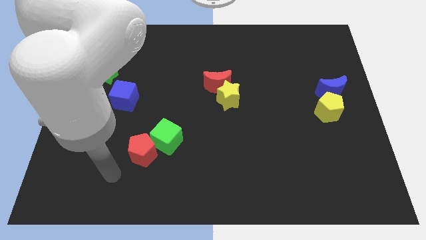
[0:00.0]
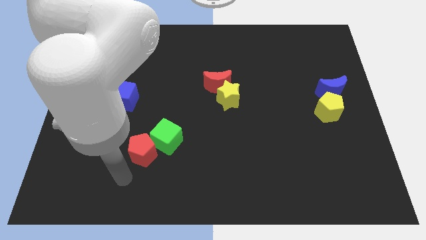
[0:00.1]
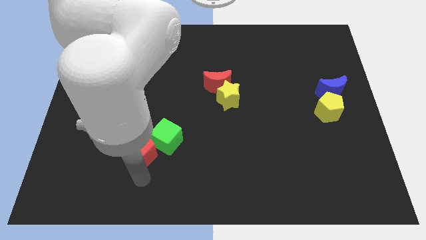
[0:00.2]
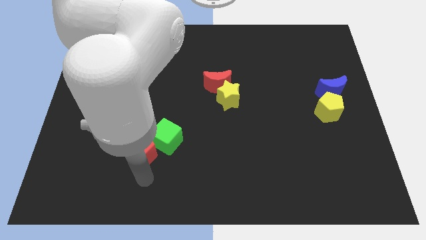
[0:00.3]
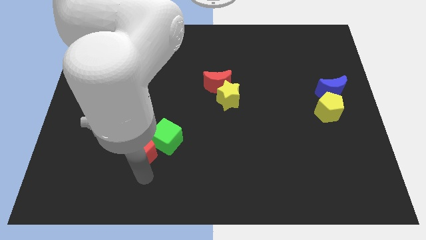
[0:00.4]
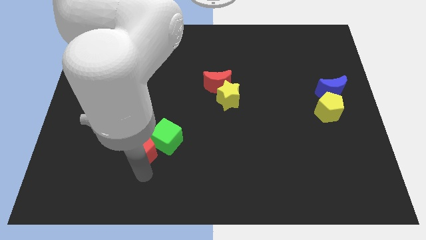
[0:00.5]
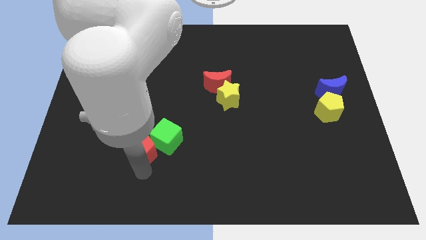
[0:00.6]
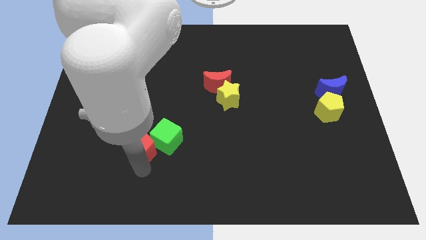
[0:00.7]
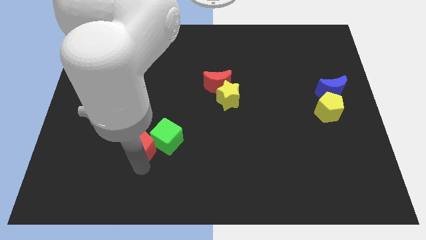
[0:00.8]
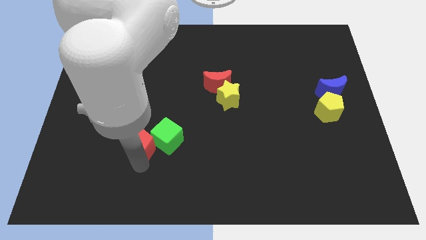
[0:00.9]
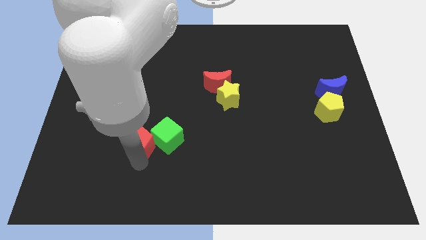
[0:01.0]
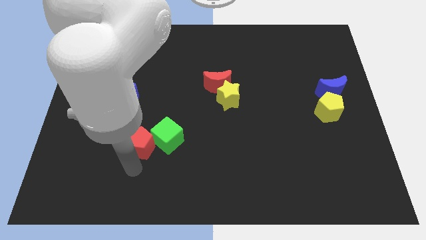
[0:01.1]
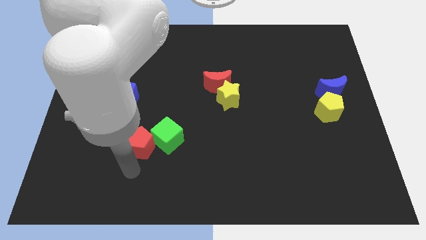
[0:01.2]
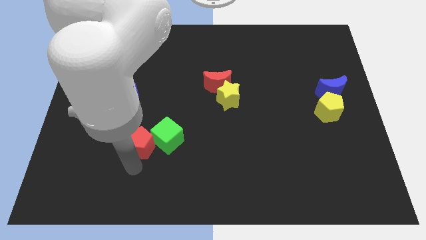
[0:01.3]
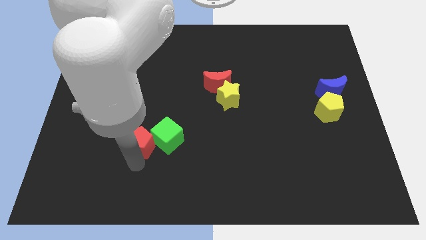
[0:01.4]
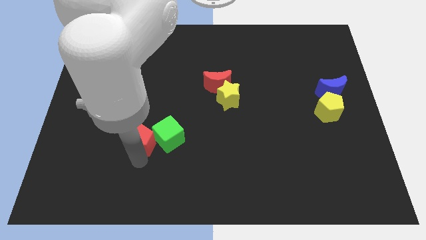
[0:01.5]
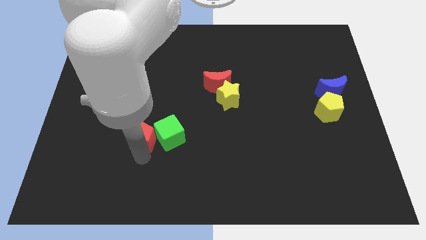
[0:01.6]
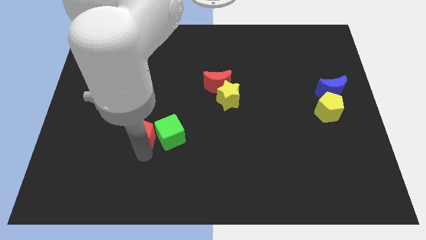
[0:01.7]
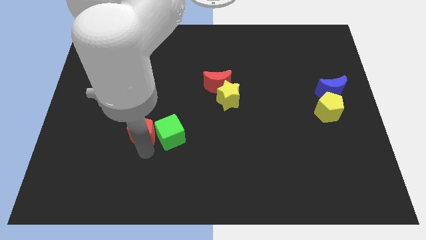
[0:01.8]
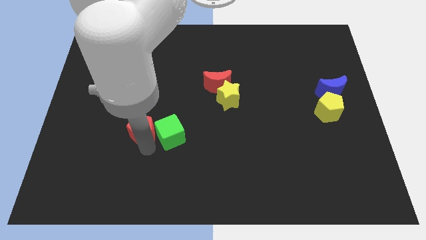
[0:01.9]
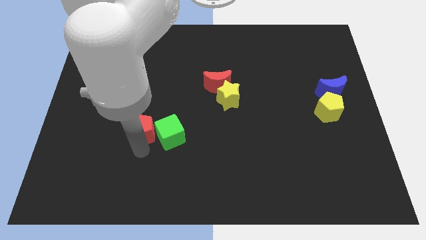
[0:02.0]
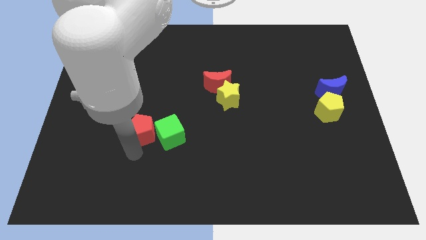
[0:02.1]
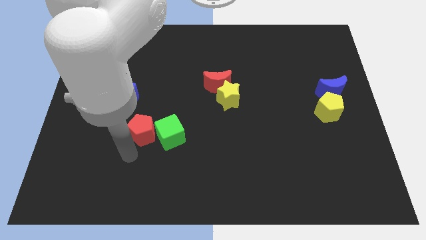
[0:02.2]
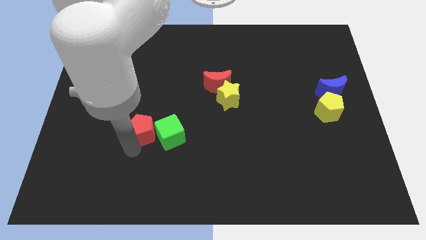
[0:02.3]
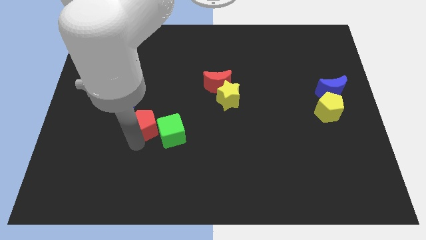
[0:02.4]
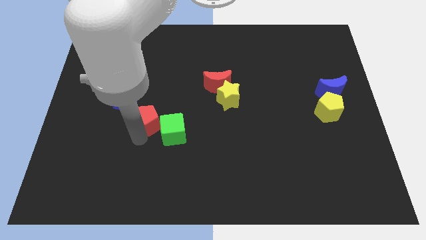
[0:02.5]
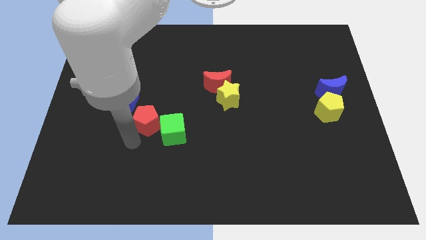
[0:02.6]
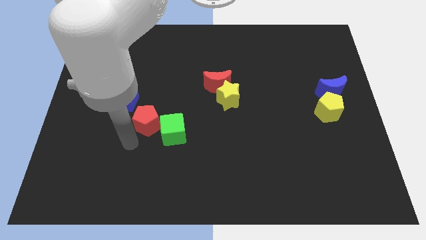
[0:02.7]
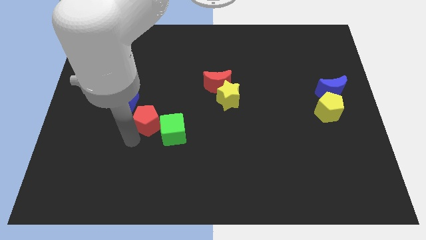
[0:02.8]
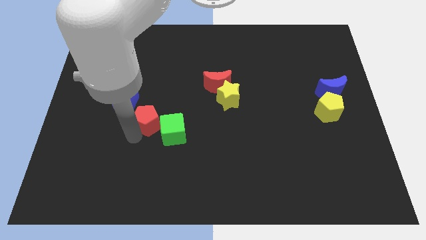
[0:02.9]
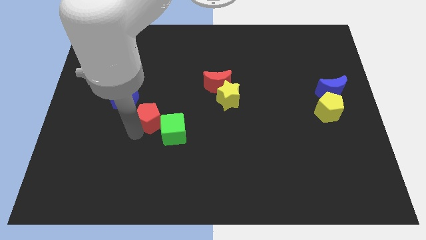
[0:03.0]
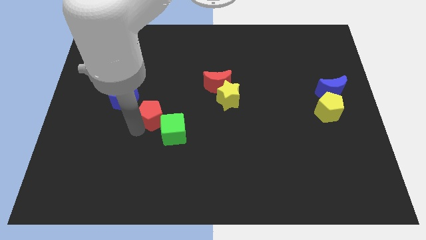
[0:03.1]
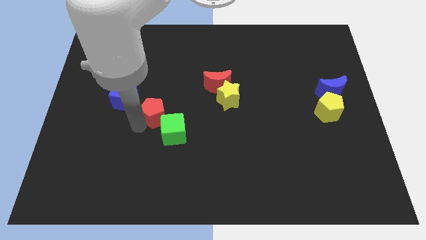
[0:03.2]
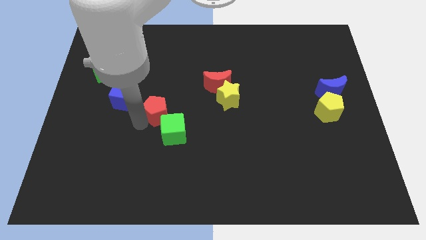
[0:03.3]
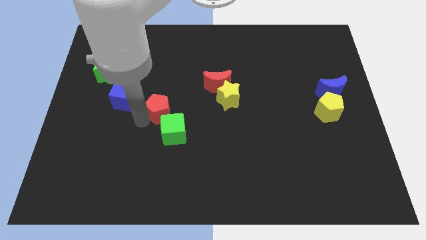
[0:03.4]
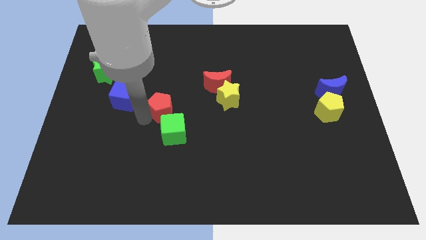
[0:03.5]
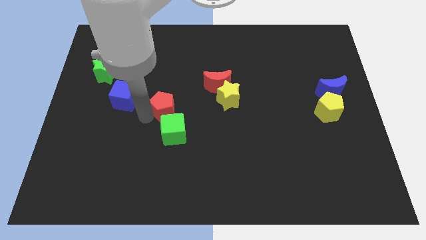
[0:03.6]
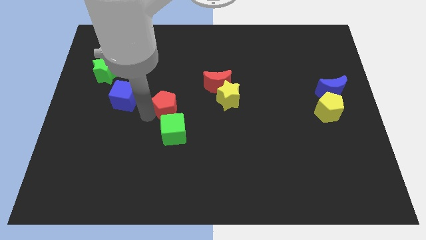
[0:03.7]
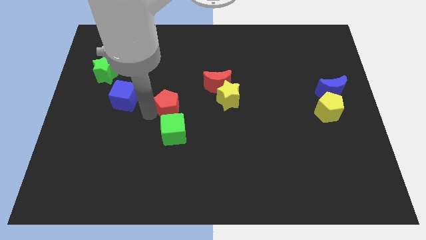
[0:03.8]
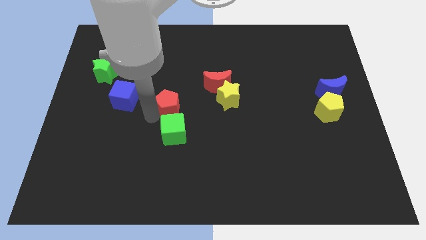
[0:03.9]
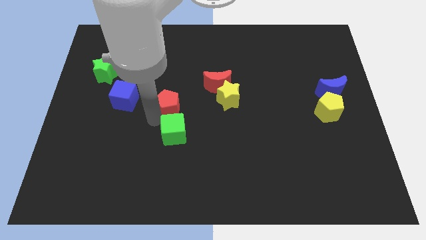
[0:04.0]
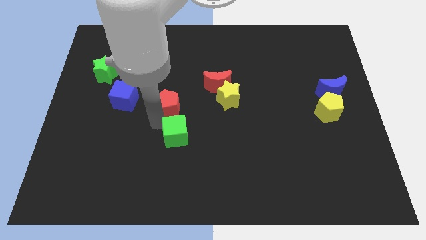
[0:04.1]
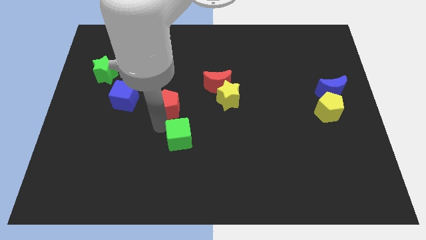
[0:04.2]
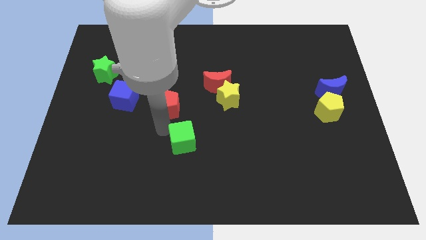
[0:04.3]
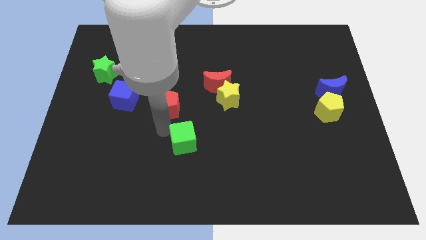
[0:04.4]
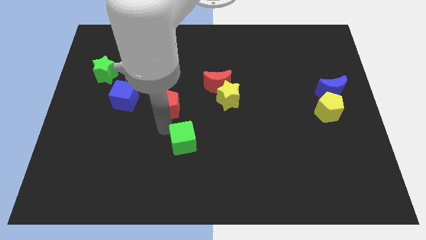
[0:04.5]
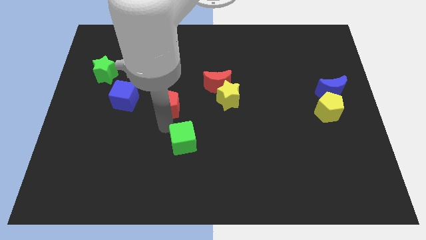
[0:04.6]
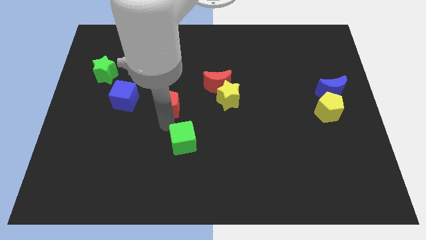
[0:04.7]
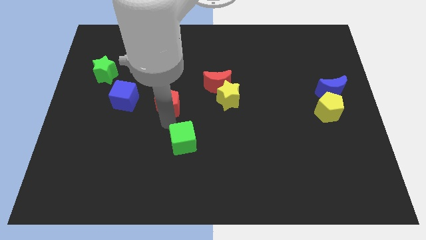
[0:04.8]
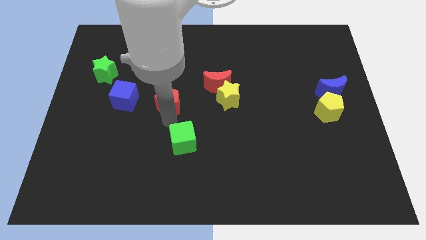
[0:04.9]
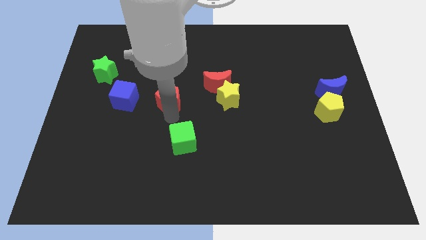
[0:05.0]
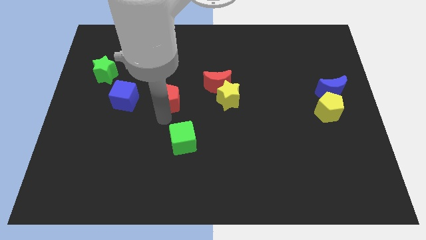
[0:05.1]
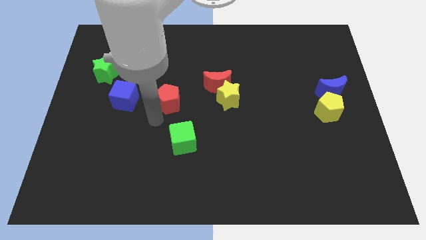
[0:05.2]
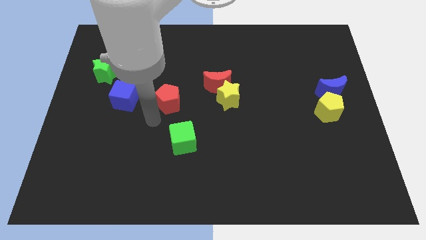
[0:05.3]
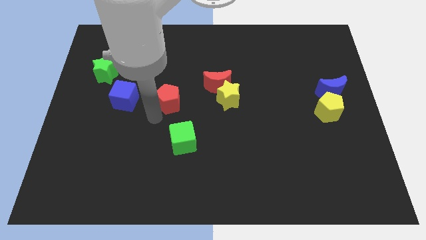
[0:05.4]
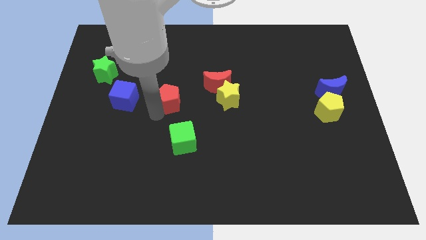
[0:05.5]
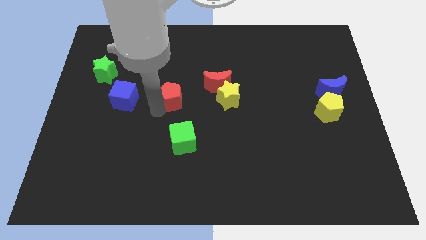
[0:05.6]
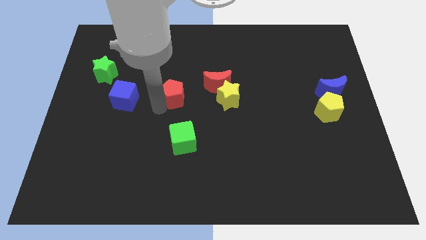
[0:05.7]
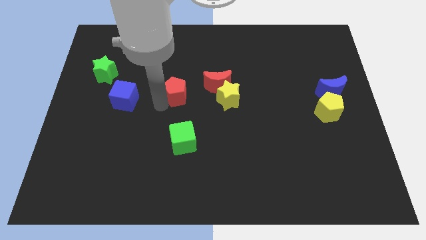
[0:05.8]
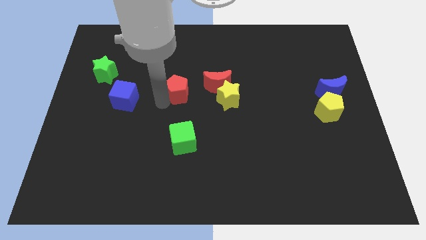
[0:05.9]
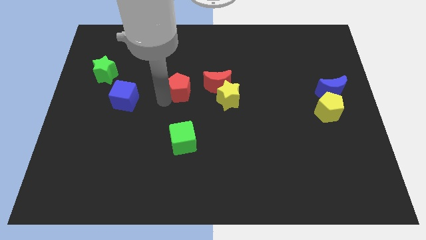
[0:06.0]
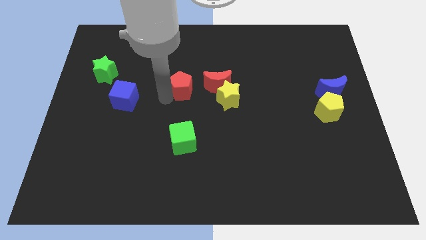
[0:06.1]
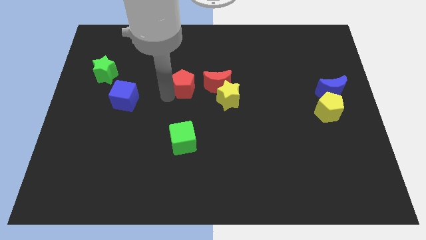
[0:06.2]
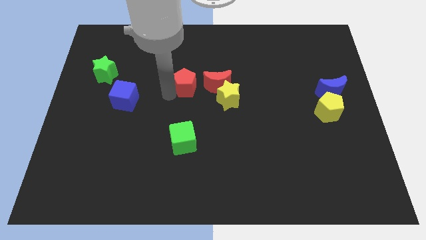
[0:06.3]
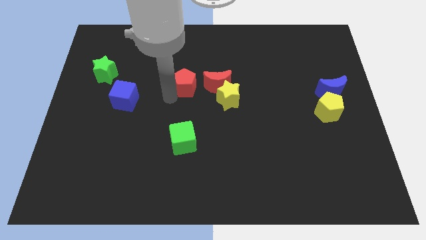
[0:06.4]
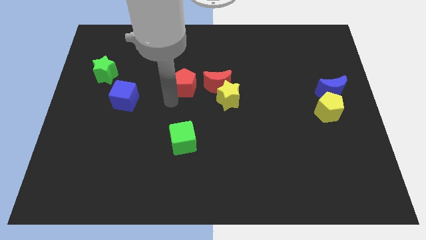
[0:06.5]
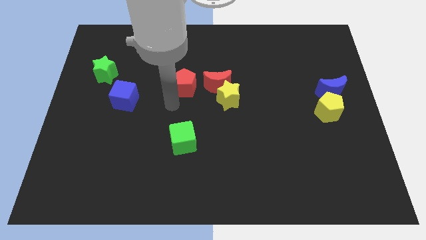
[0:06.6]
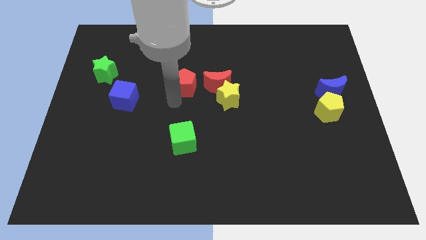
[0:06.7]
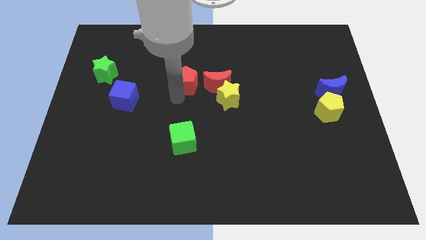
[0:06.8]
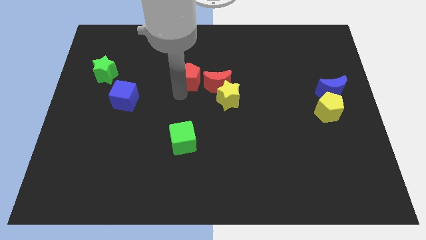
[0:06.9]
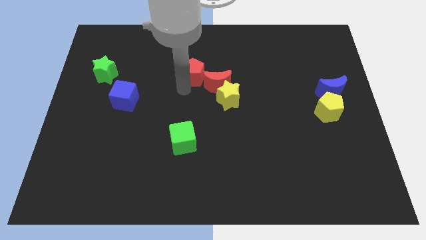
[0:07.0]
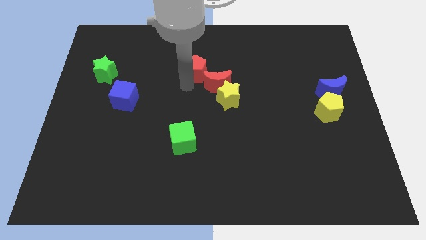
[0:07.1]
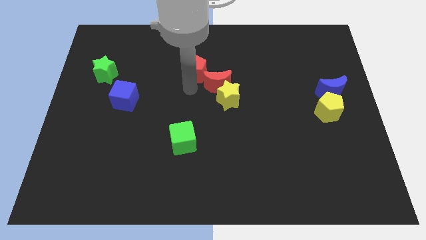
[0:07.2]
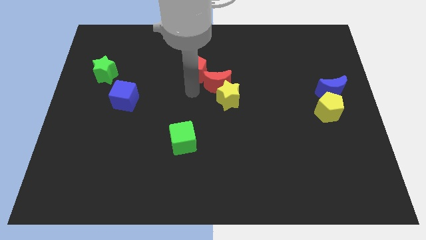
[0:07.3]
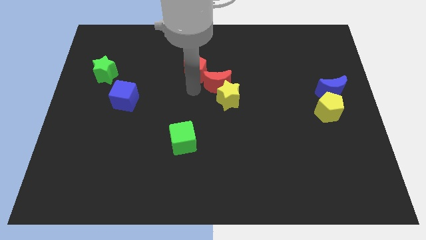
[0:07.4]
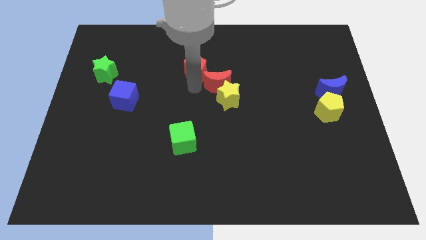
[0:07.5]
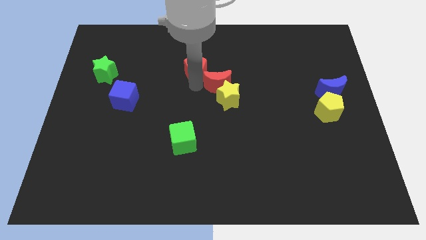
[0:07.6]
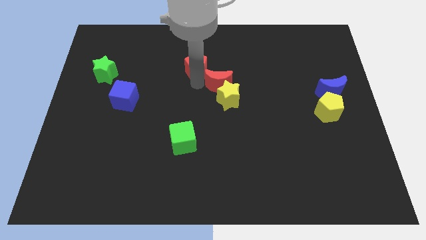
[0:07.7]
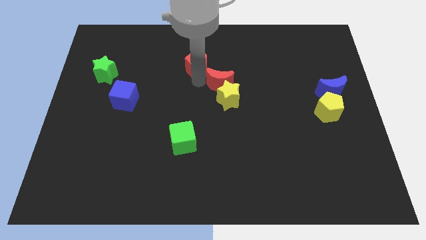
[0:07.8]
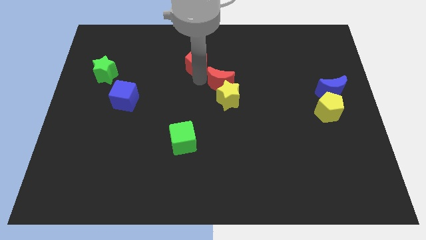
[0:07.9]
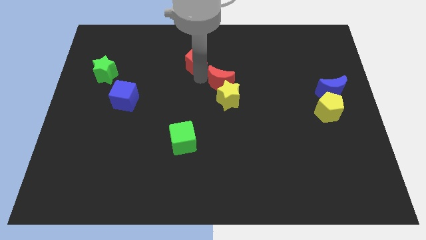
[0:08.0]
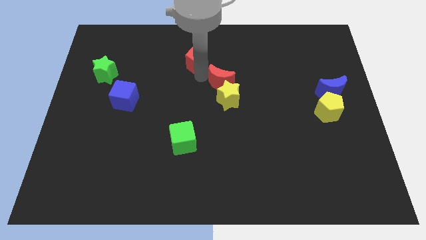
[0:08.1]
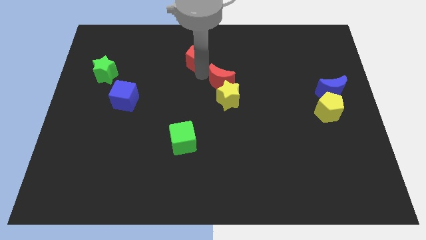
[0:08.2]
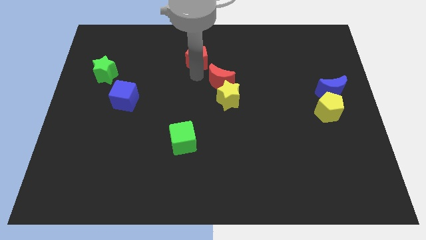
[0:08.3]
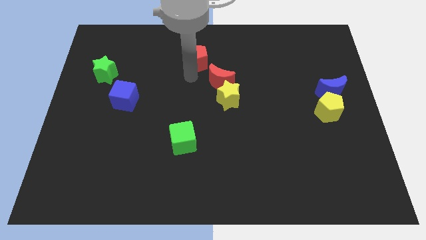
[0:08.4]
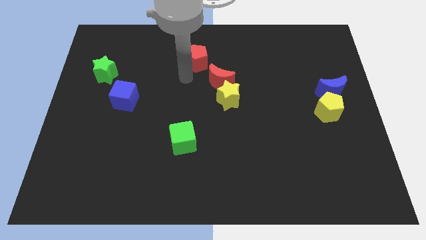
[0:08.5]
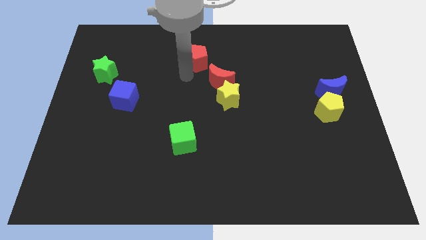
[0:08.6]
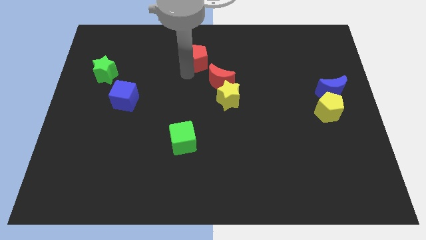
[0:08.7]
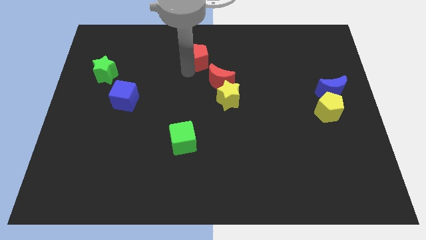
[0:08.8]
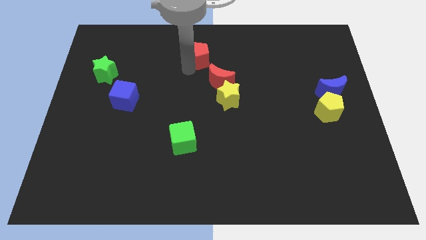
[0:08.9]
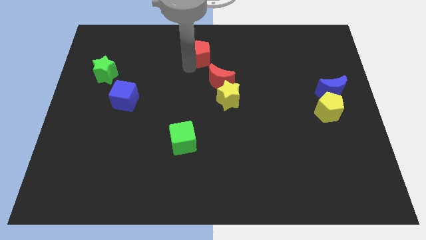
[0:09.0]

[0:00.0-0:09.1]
slide the red pentagon to the towards your base
